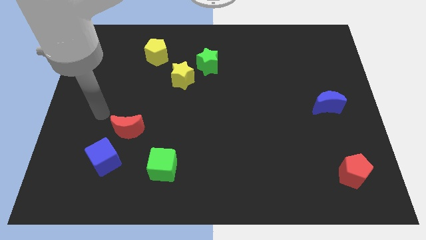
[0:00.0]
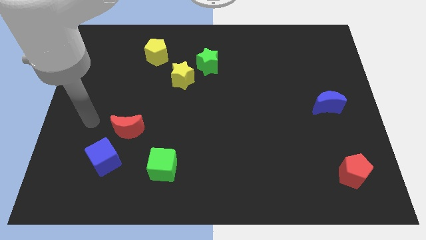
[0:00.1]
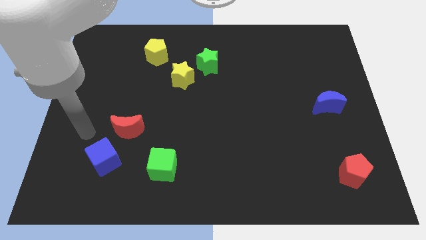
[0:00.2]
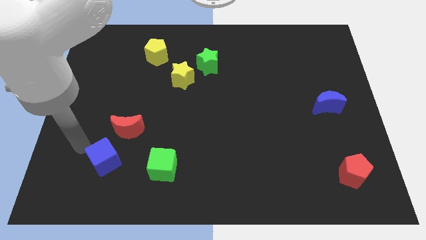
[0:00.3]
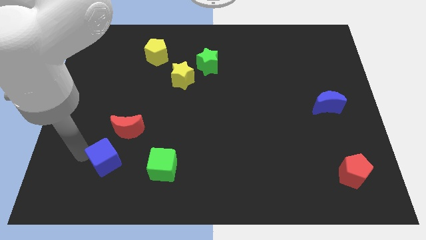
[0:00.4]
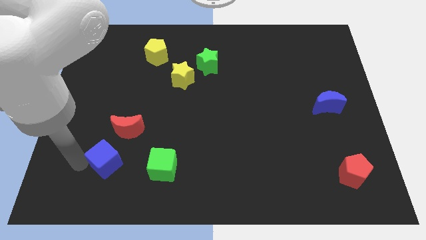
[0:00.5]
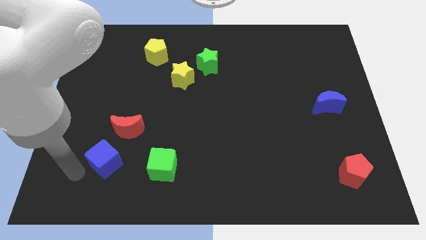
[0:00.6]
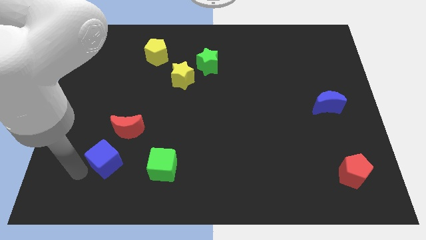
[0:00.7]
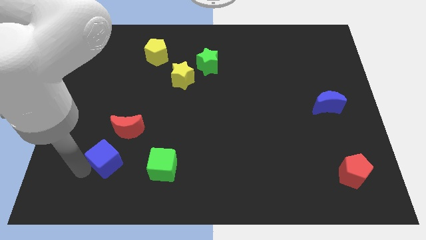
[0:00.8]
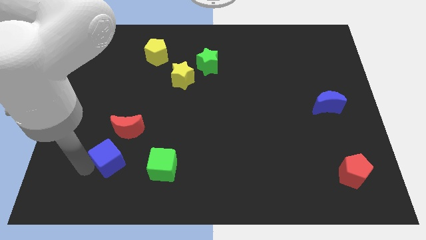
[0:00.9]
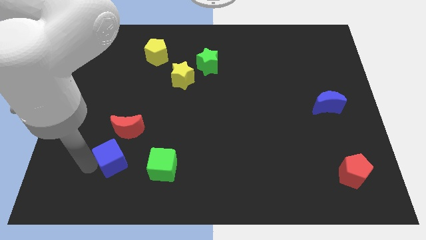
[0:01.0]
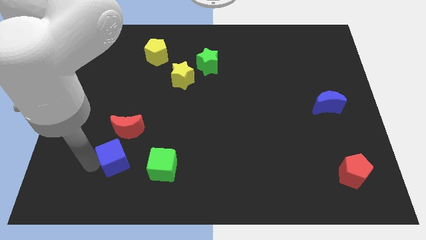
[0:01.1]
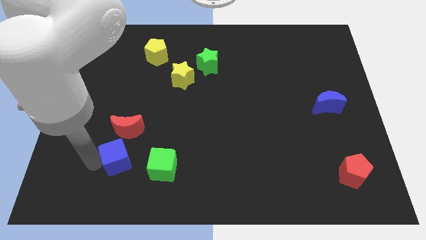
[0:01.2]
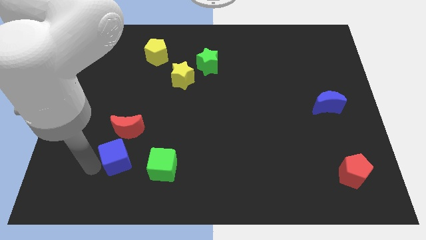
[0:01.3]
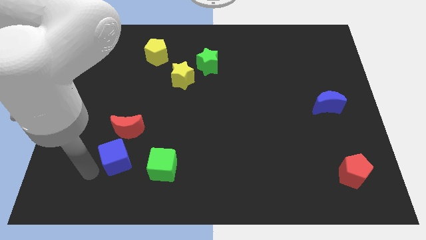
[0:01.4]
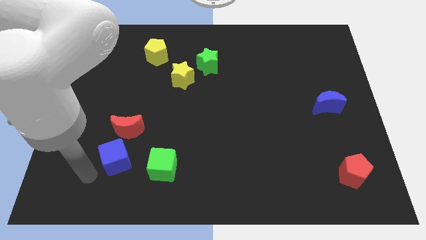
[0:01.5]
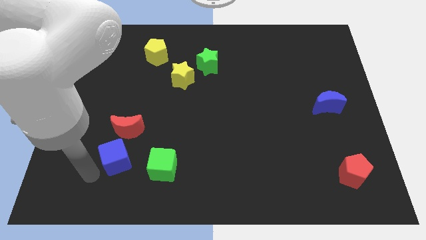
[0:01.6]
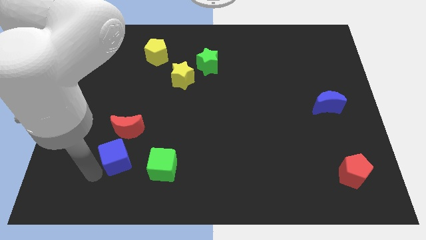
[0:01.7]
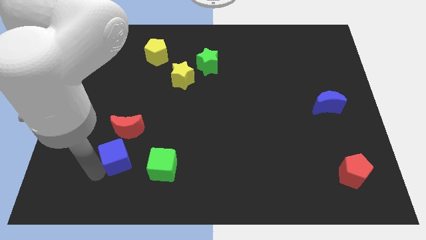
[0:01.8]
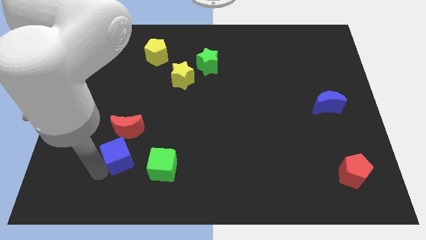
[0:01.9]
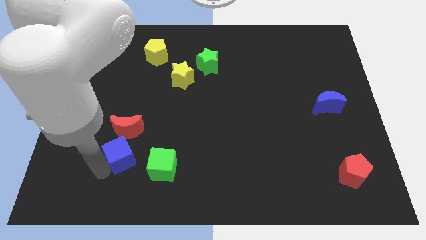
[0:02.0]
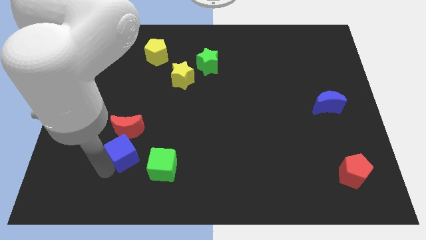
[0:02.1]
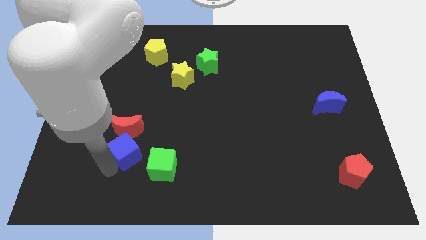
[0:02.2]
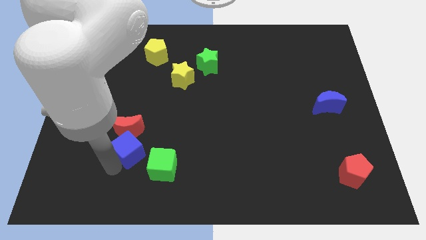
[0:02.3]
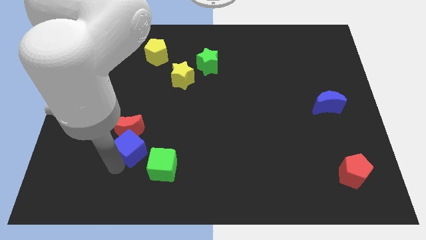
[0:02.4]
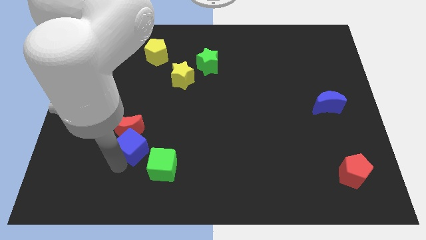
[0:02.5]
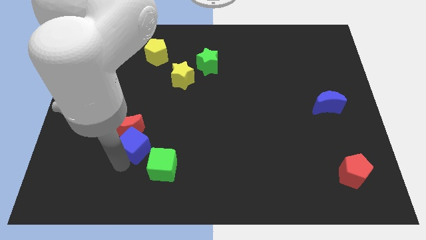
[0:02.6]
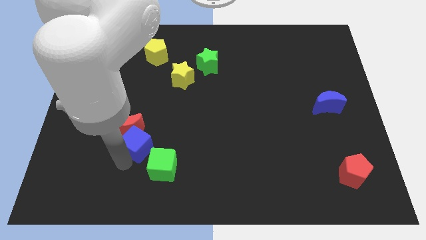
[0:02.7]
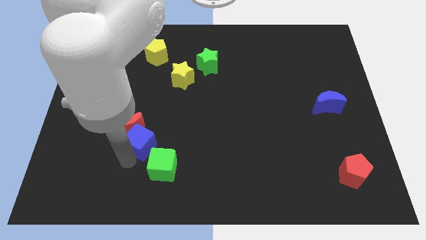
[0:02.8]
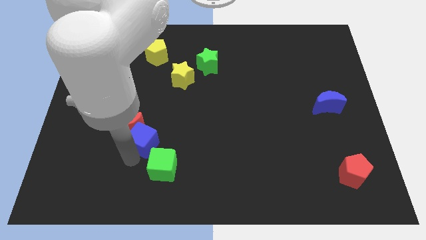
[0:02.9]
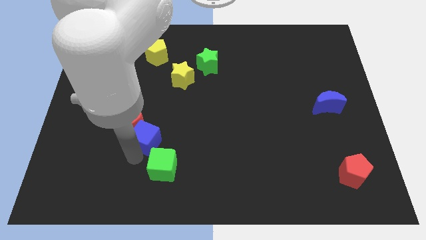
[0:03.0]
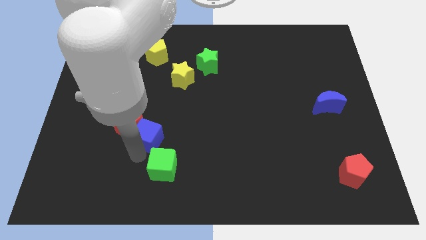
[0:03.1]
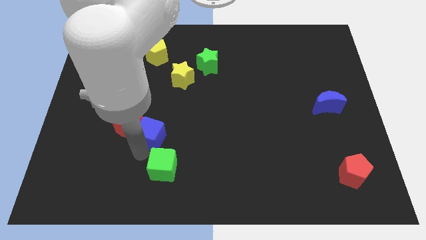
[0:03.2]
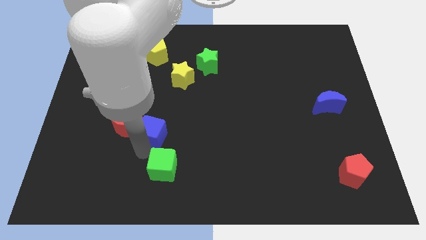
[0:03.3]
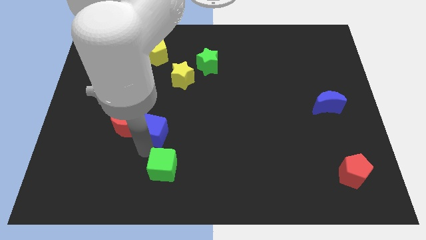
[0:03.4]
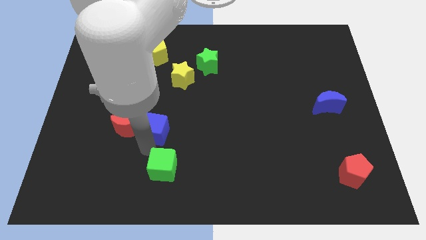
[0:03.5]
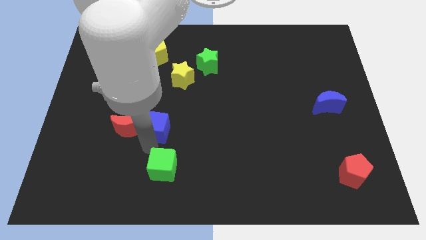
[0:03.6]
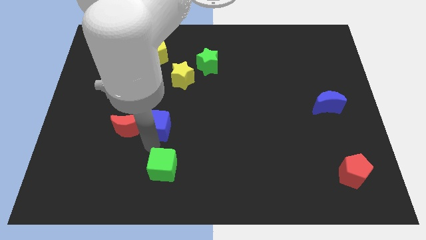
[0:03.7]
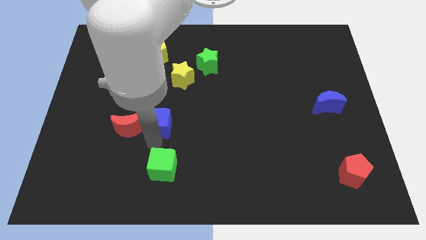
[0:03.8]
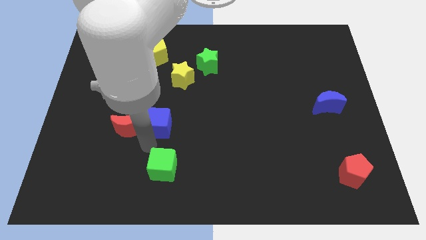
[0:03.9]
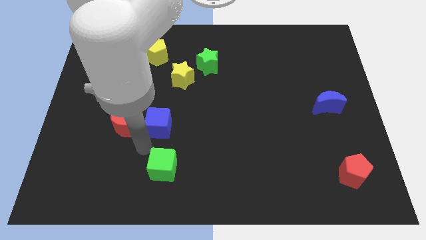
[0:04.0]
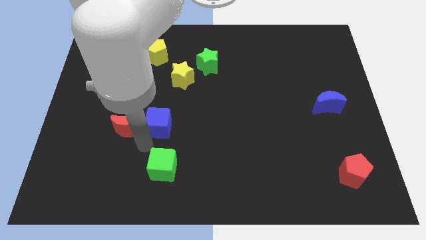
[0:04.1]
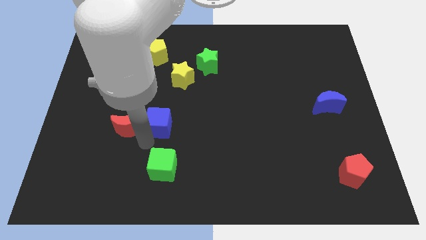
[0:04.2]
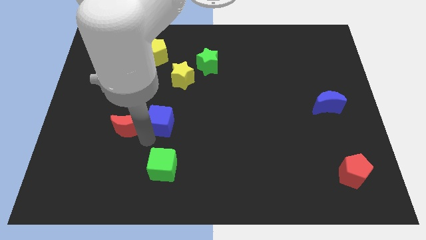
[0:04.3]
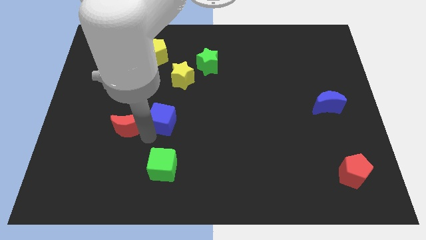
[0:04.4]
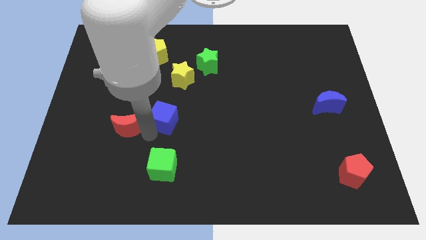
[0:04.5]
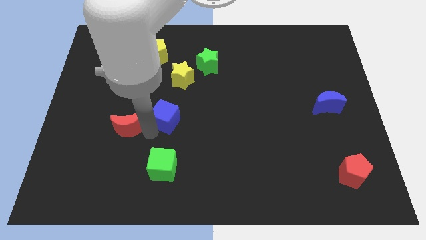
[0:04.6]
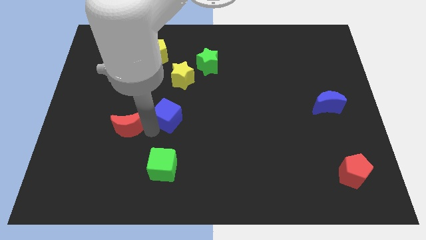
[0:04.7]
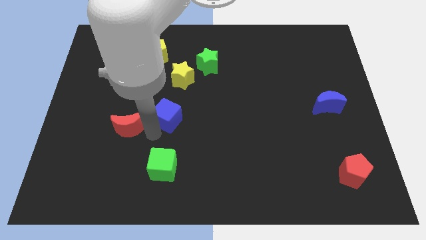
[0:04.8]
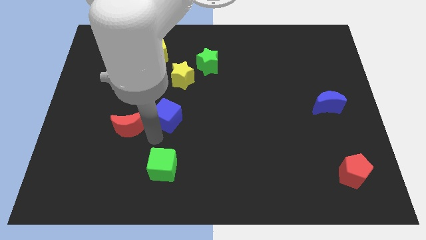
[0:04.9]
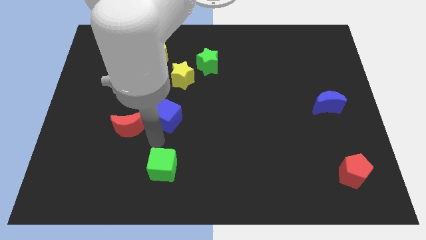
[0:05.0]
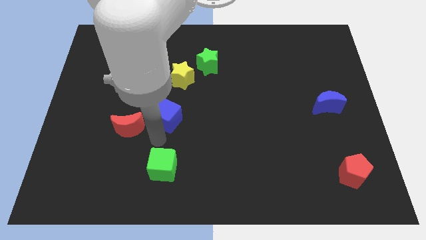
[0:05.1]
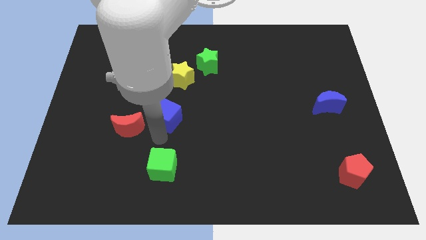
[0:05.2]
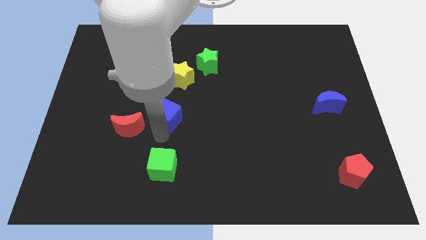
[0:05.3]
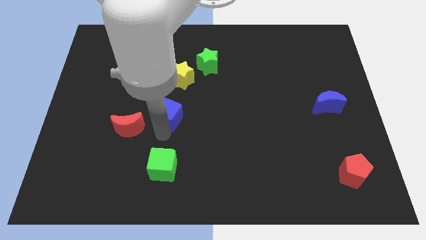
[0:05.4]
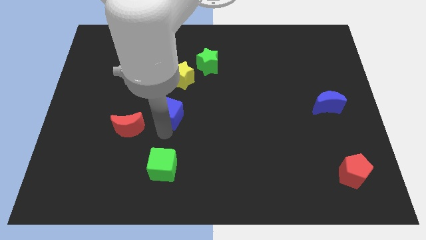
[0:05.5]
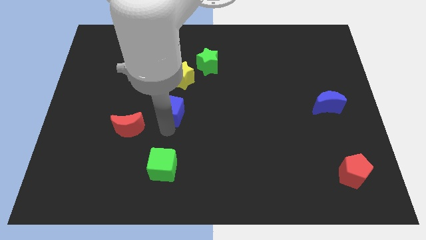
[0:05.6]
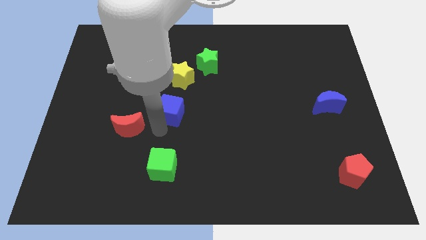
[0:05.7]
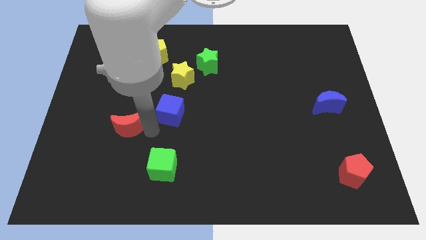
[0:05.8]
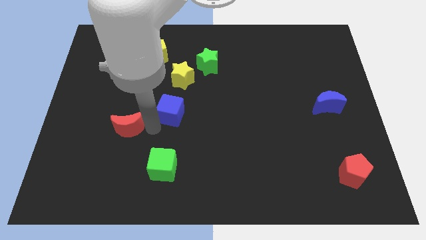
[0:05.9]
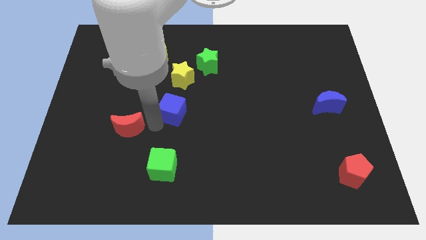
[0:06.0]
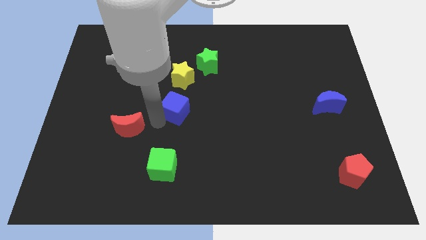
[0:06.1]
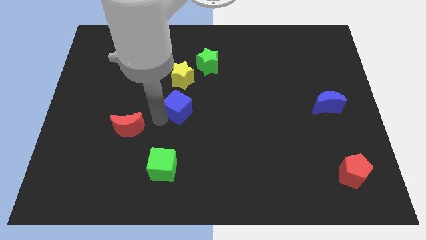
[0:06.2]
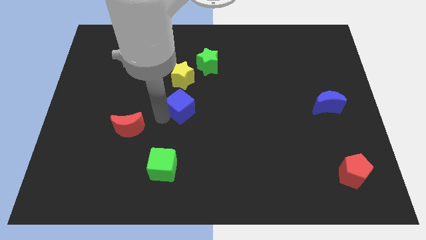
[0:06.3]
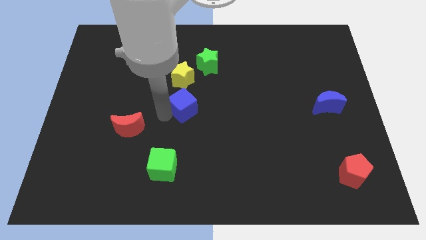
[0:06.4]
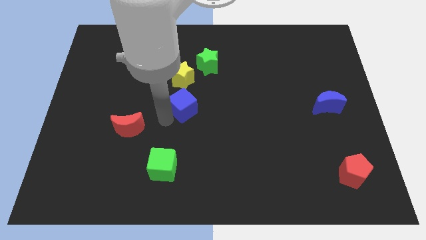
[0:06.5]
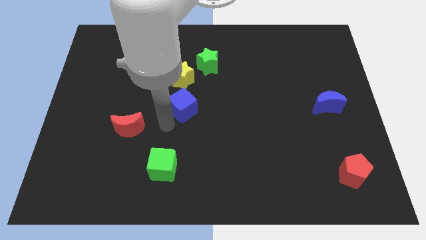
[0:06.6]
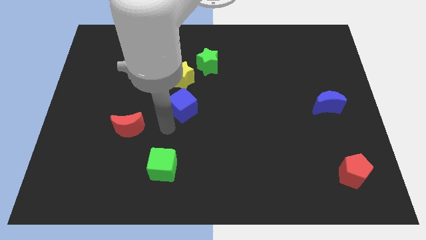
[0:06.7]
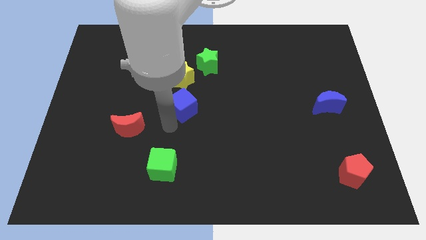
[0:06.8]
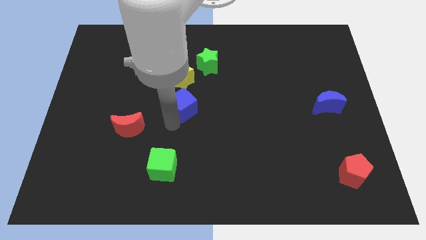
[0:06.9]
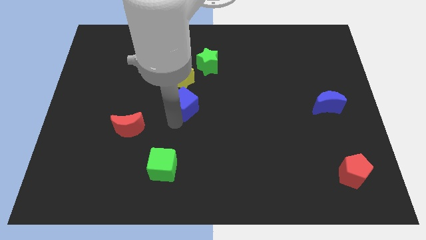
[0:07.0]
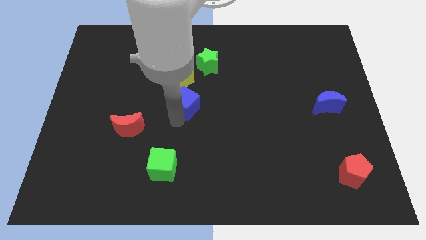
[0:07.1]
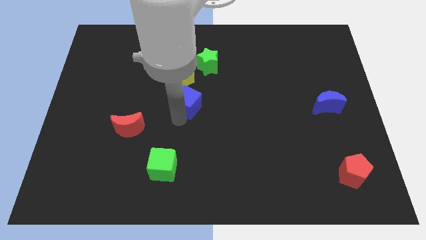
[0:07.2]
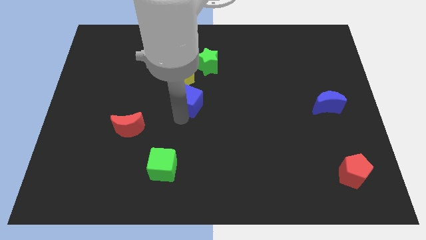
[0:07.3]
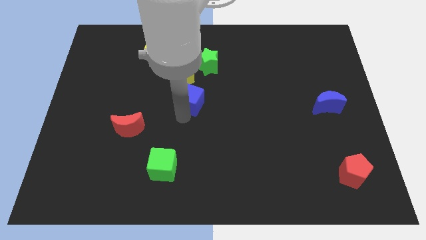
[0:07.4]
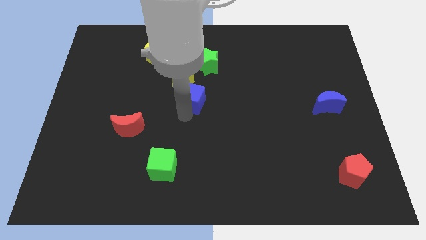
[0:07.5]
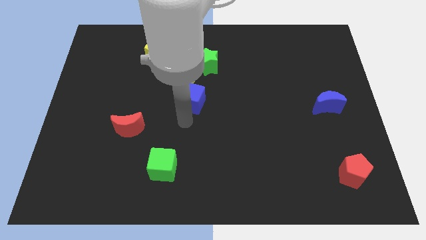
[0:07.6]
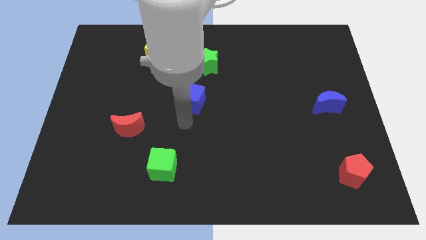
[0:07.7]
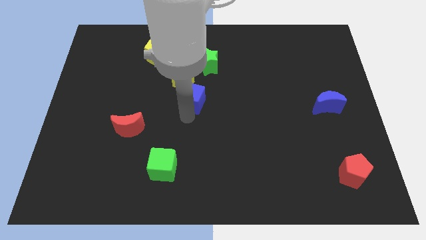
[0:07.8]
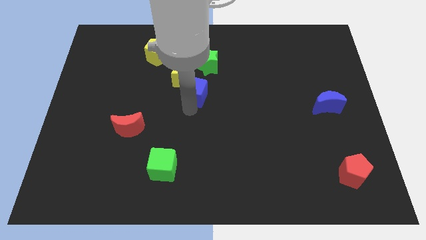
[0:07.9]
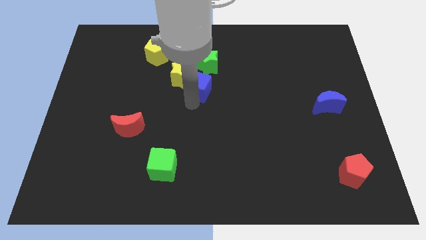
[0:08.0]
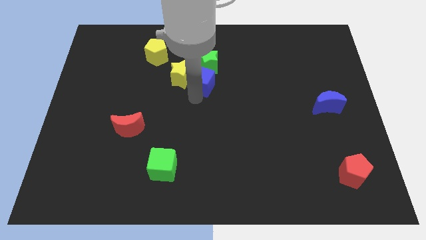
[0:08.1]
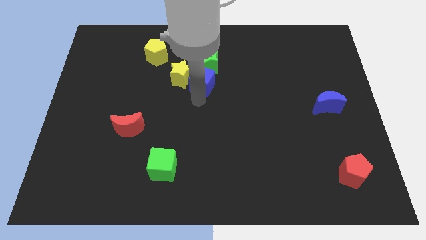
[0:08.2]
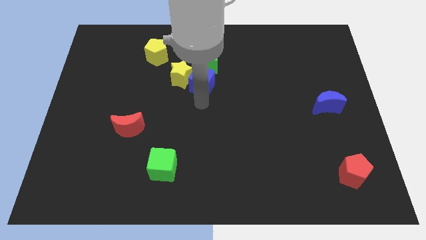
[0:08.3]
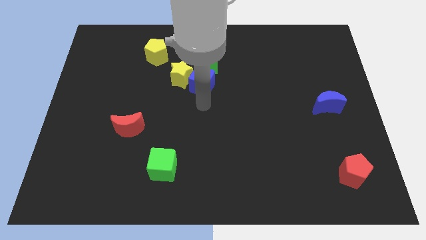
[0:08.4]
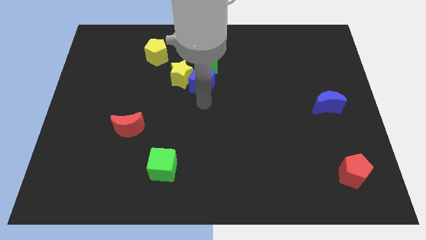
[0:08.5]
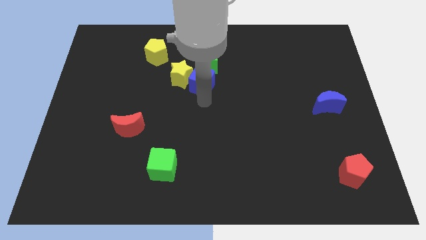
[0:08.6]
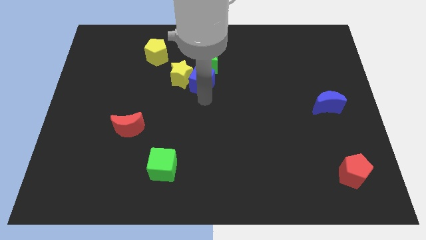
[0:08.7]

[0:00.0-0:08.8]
move the blue cube close to the green star
